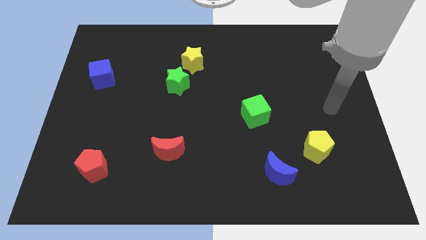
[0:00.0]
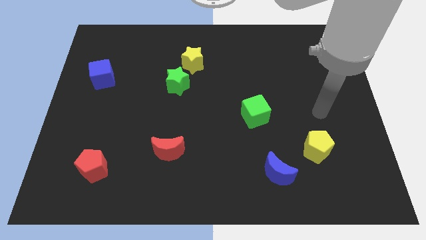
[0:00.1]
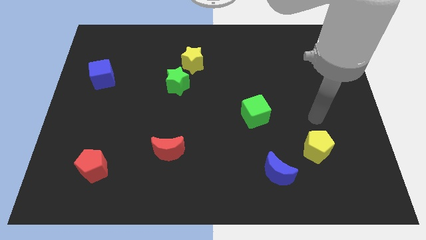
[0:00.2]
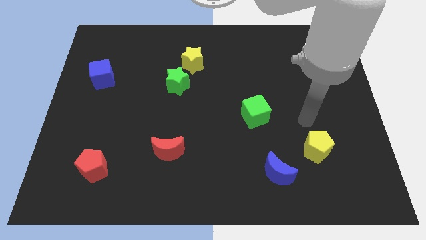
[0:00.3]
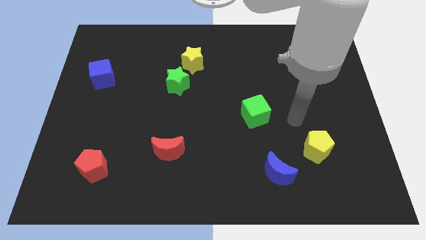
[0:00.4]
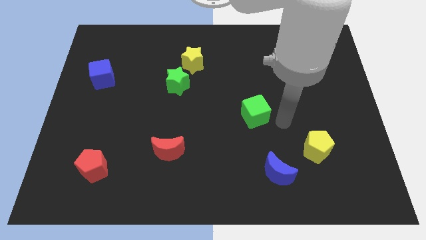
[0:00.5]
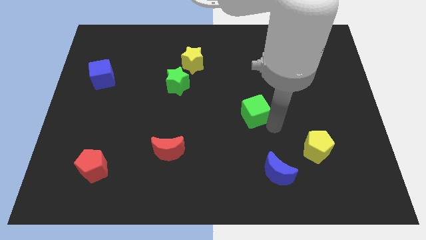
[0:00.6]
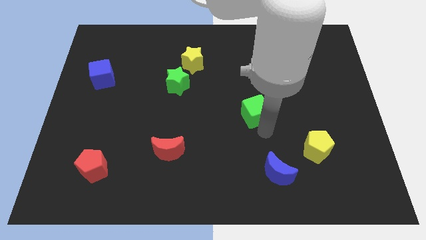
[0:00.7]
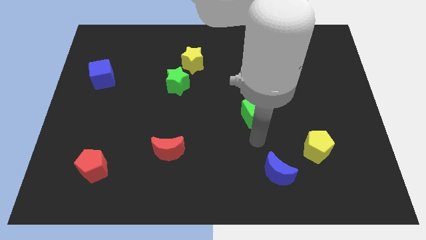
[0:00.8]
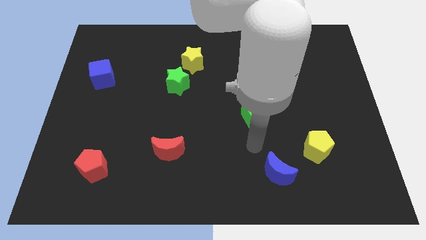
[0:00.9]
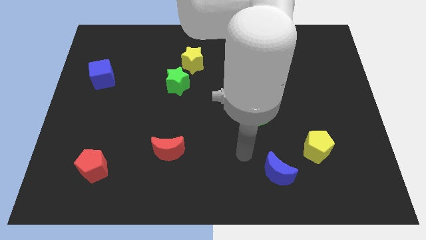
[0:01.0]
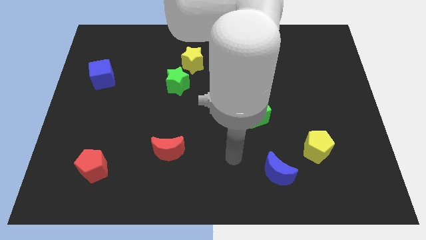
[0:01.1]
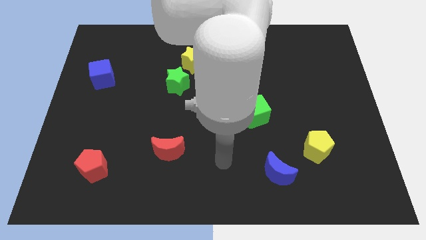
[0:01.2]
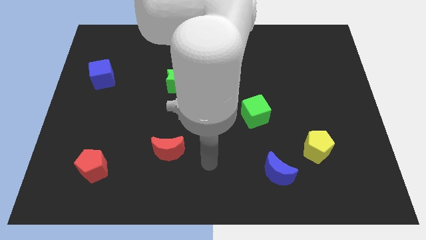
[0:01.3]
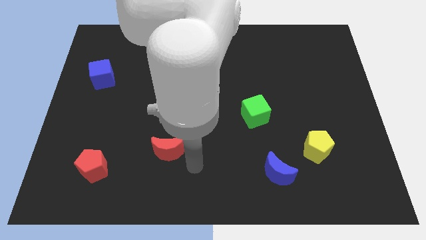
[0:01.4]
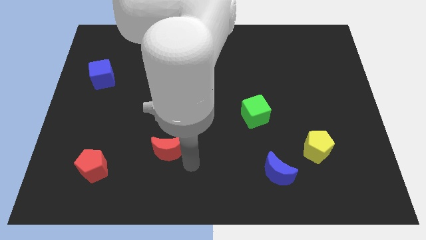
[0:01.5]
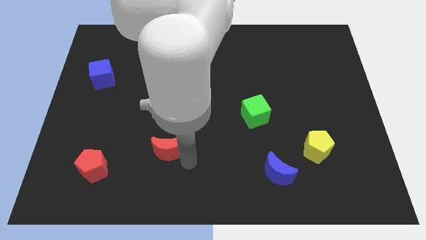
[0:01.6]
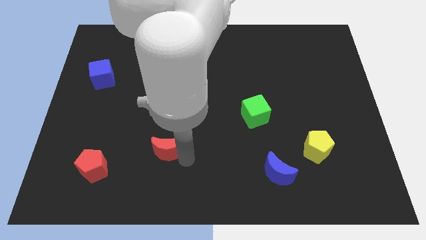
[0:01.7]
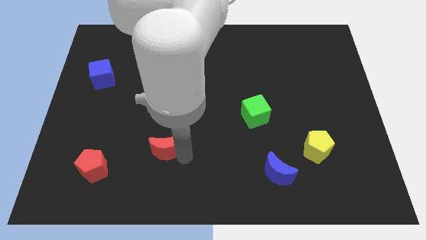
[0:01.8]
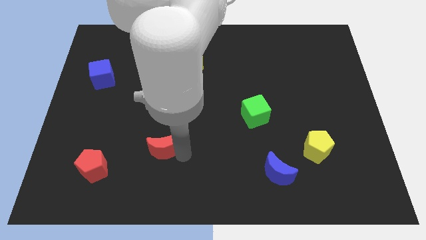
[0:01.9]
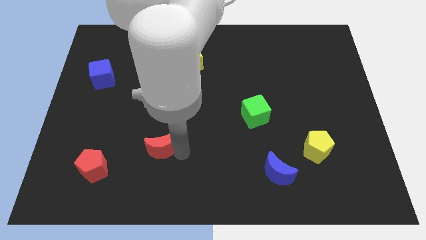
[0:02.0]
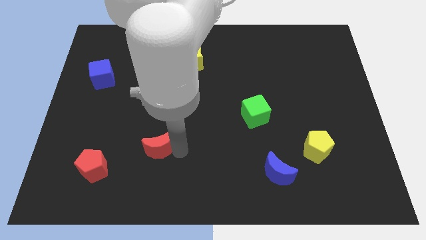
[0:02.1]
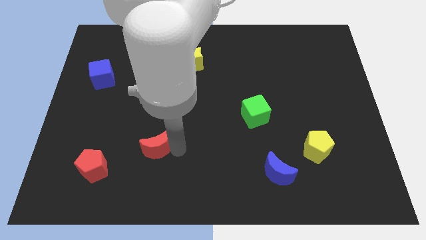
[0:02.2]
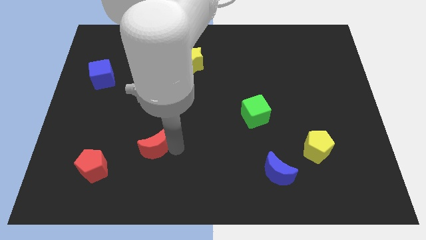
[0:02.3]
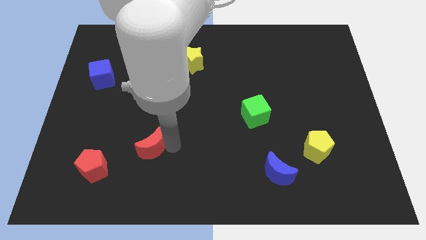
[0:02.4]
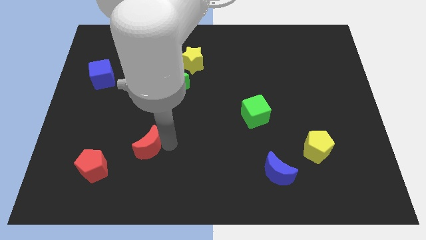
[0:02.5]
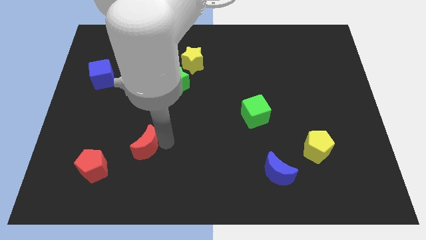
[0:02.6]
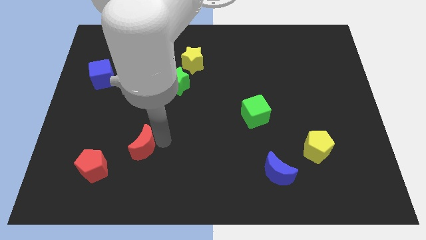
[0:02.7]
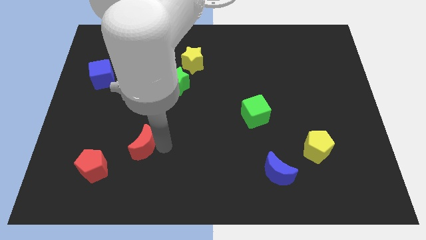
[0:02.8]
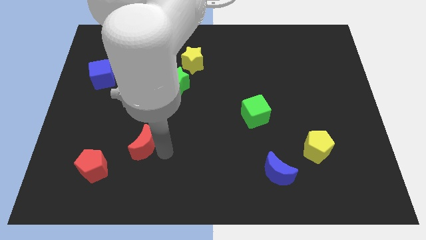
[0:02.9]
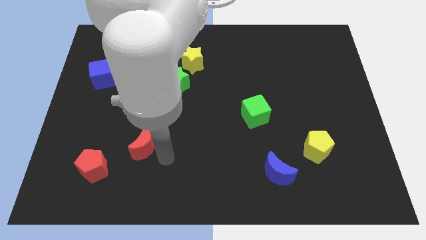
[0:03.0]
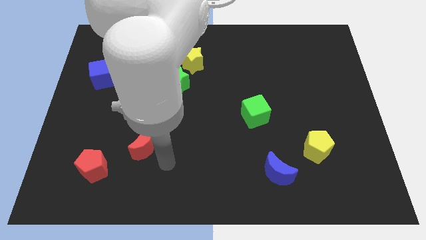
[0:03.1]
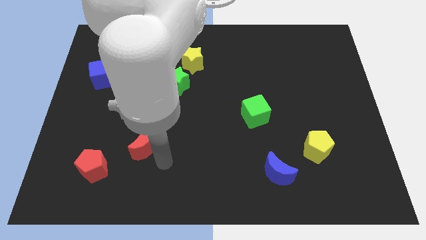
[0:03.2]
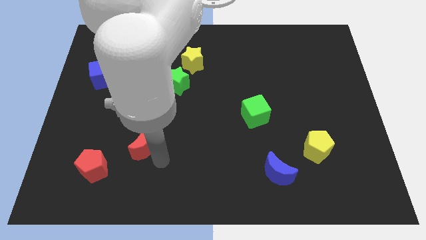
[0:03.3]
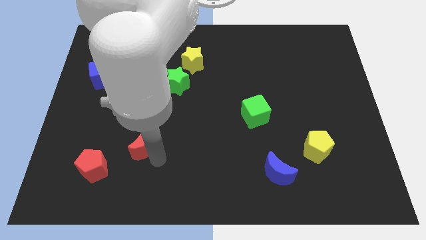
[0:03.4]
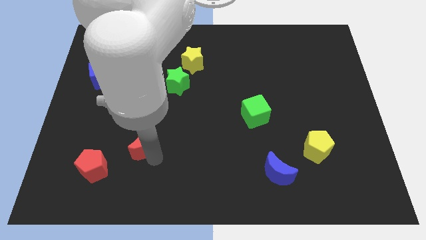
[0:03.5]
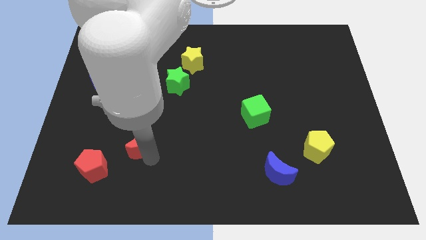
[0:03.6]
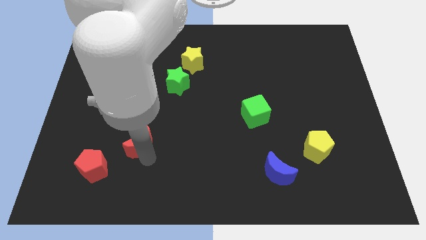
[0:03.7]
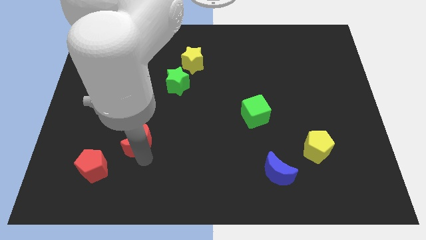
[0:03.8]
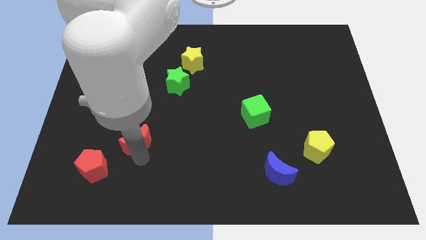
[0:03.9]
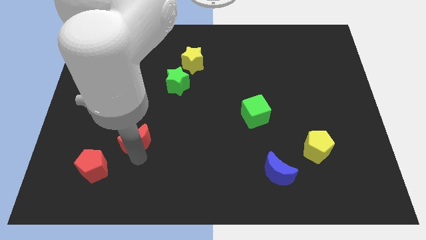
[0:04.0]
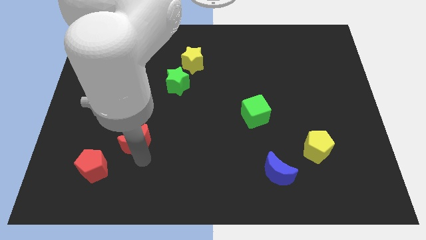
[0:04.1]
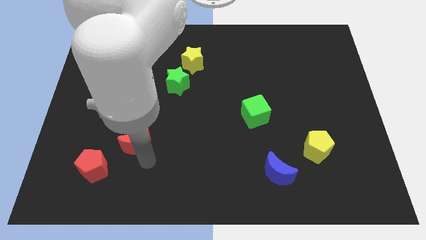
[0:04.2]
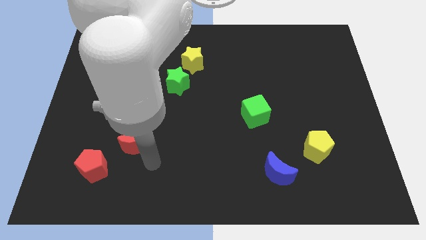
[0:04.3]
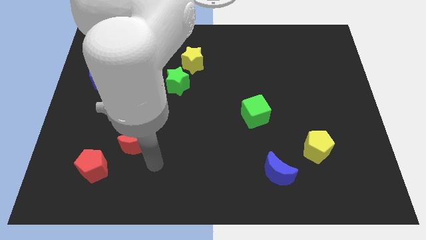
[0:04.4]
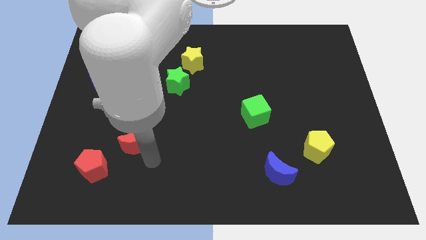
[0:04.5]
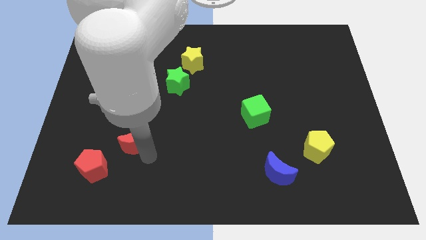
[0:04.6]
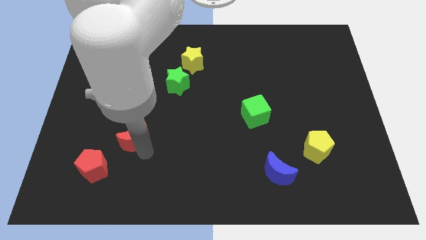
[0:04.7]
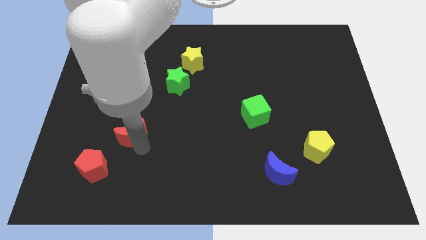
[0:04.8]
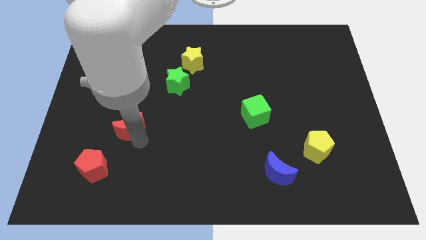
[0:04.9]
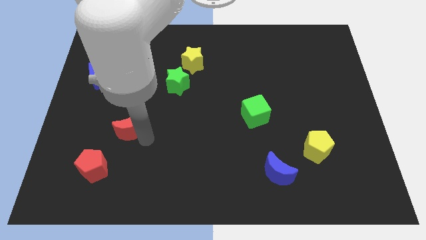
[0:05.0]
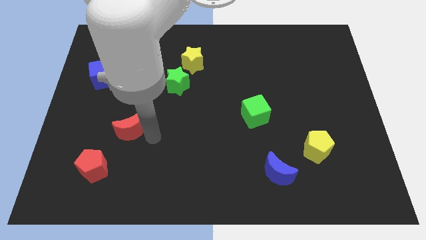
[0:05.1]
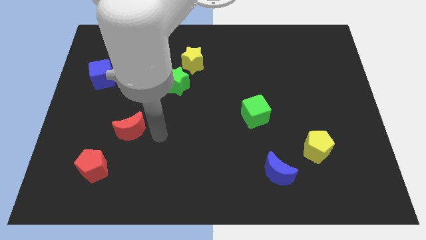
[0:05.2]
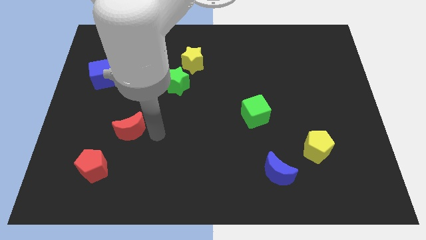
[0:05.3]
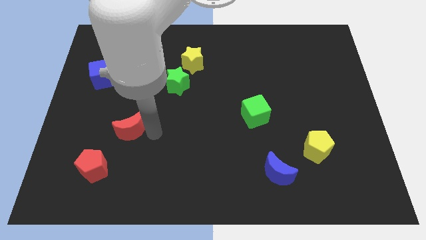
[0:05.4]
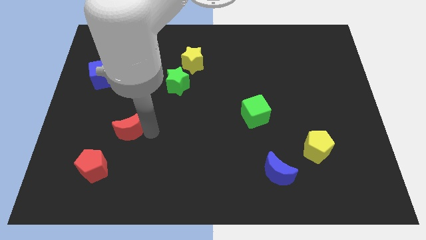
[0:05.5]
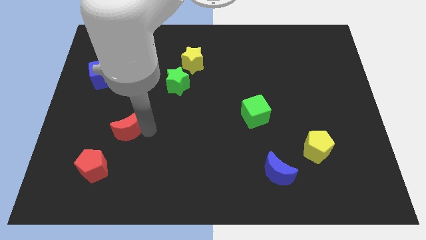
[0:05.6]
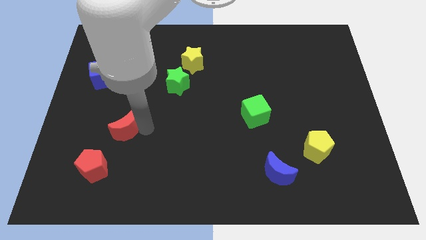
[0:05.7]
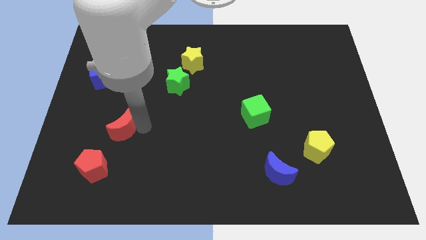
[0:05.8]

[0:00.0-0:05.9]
push the red moon above the red pentagon

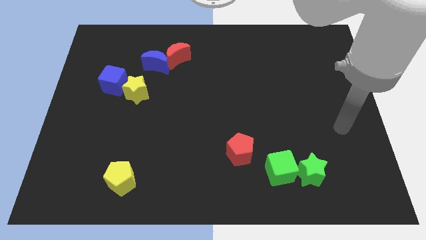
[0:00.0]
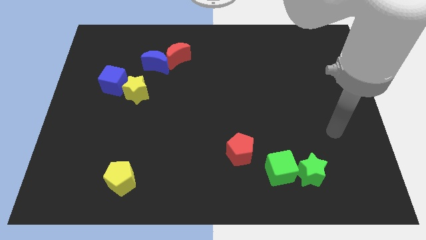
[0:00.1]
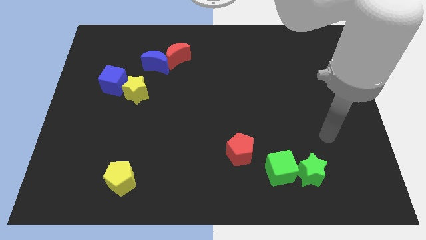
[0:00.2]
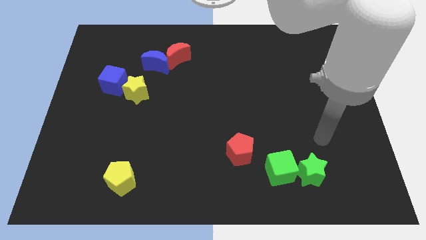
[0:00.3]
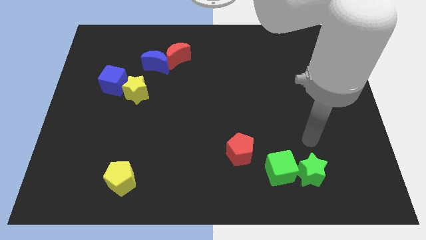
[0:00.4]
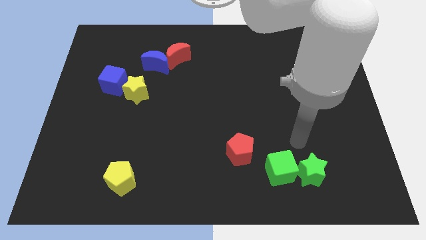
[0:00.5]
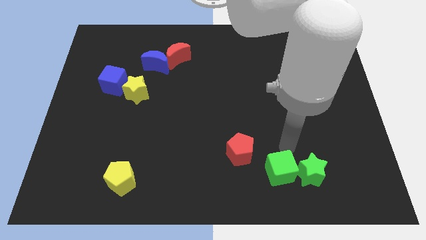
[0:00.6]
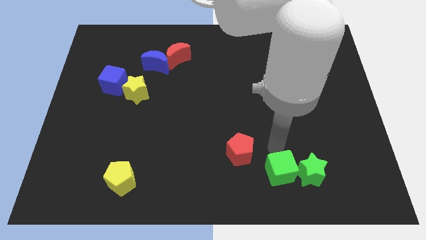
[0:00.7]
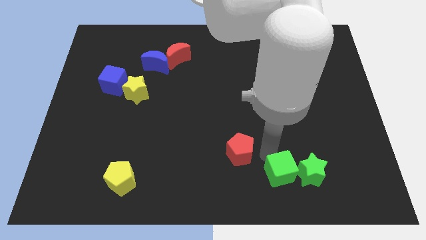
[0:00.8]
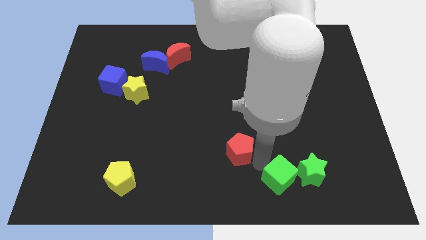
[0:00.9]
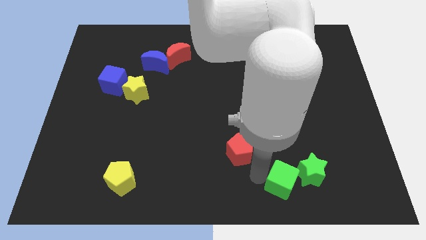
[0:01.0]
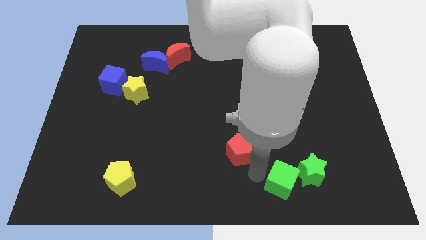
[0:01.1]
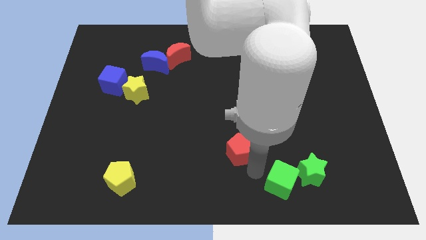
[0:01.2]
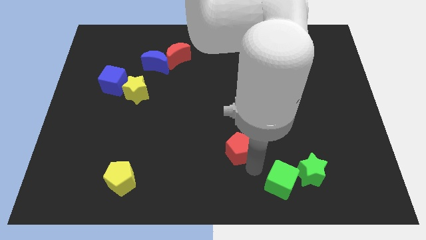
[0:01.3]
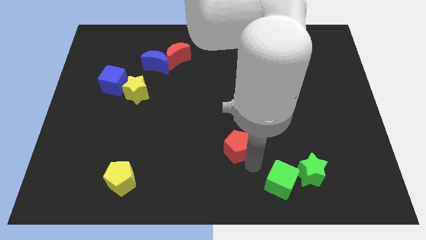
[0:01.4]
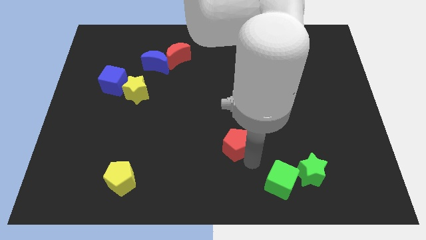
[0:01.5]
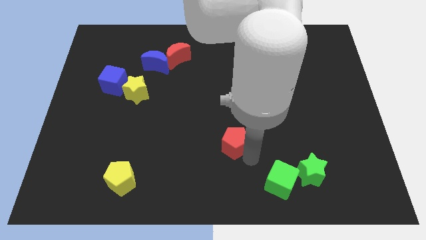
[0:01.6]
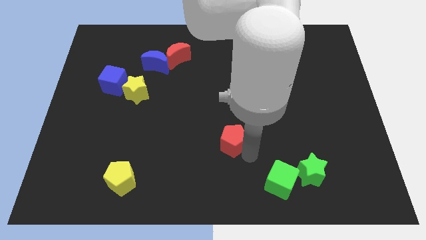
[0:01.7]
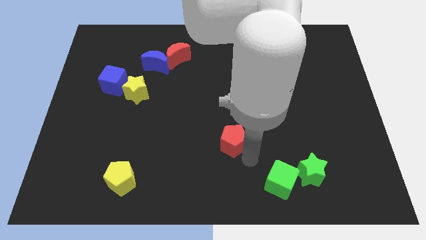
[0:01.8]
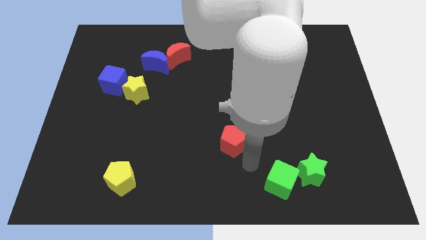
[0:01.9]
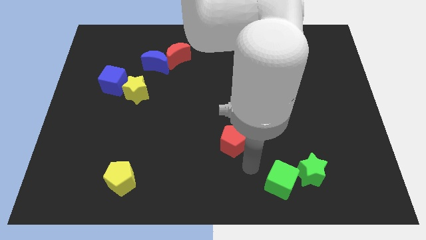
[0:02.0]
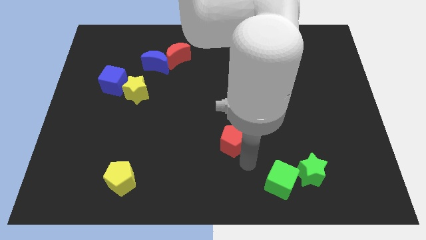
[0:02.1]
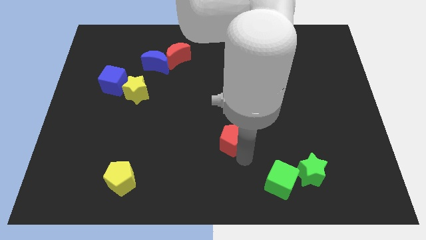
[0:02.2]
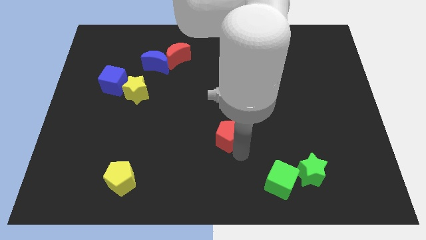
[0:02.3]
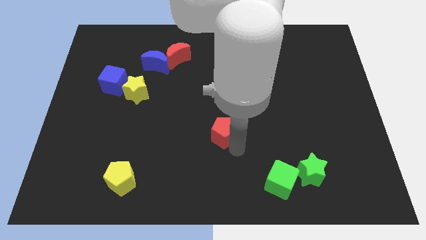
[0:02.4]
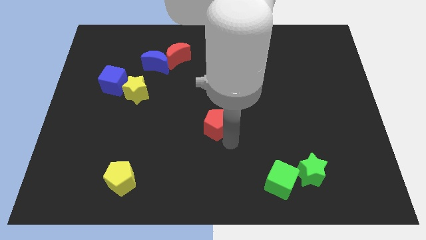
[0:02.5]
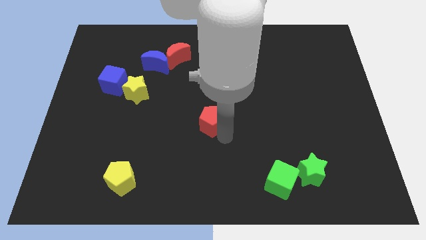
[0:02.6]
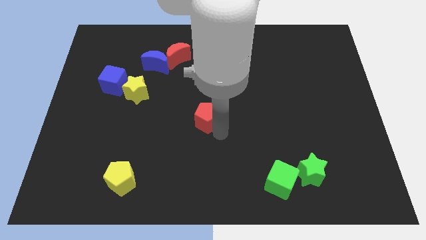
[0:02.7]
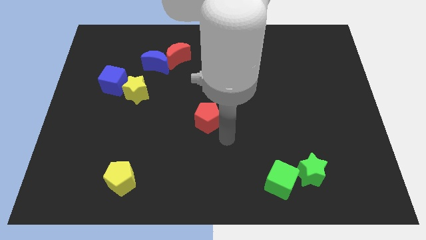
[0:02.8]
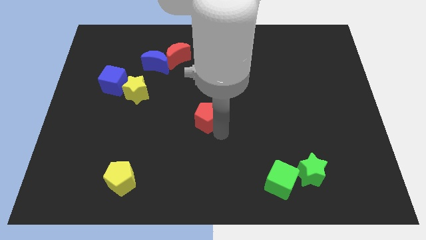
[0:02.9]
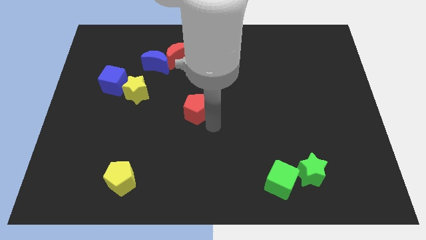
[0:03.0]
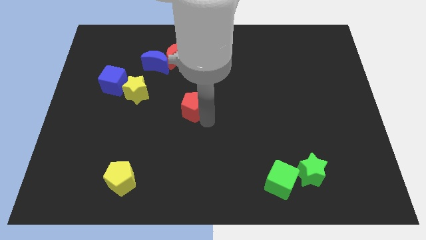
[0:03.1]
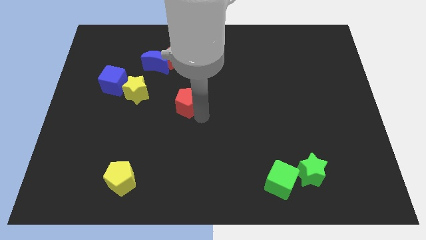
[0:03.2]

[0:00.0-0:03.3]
put the red pentagon to the right side of the yellow star
